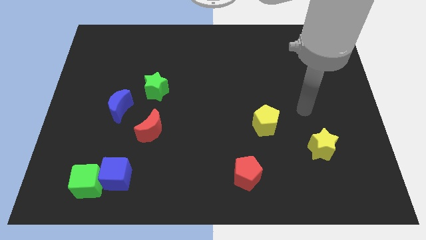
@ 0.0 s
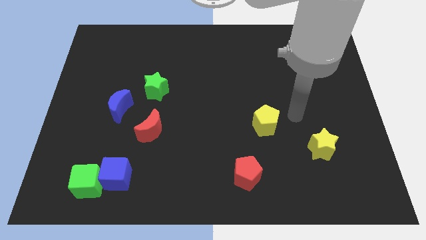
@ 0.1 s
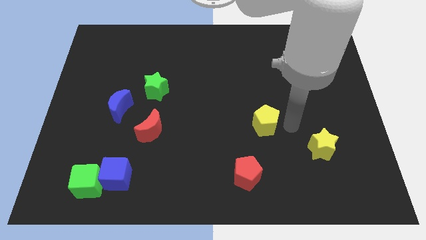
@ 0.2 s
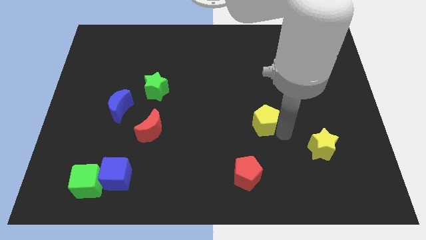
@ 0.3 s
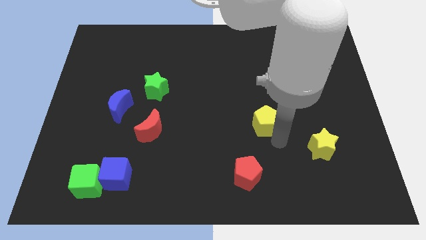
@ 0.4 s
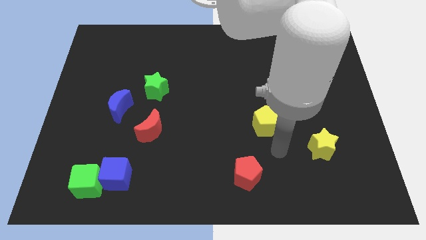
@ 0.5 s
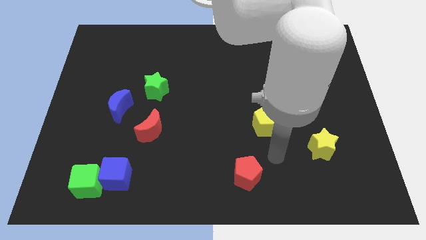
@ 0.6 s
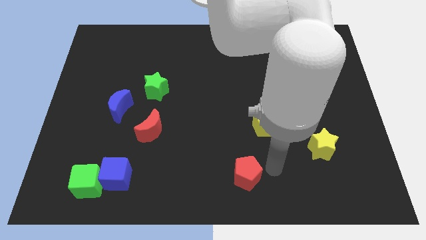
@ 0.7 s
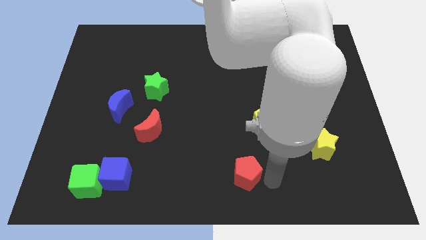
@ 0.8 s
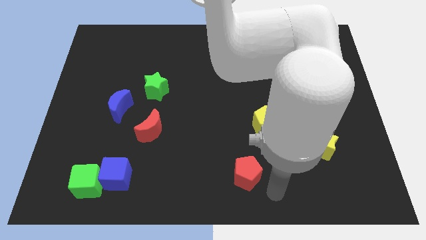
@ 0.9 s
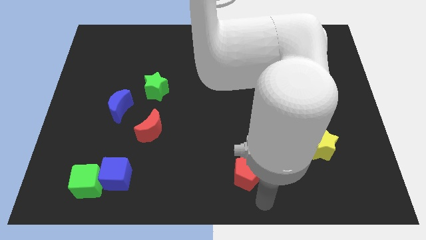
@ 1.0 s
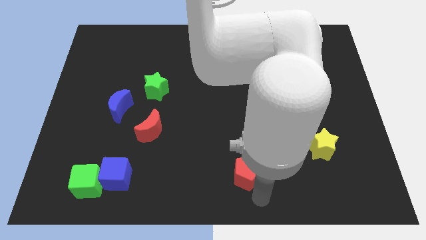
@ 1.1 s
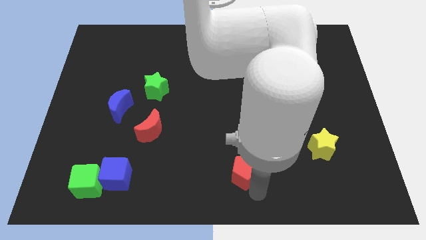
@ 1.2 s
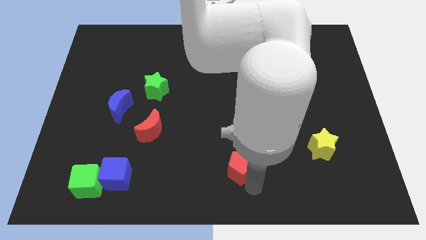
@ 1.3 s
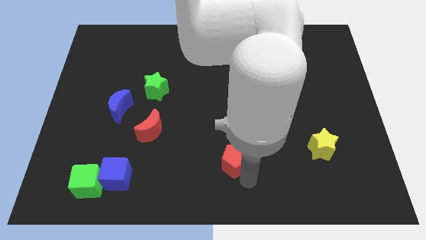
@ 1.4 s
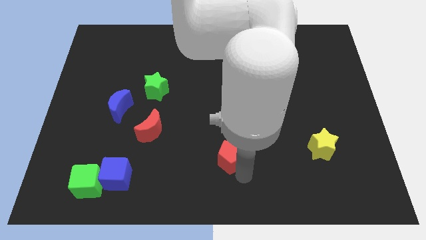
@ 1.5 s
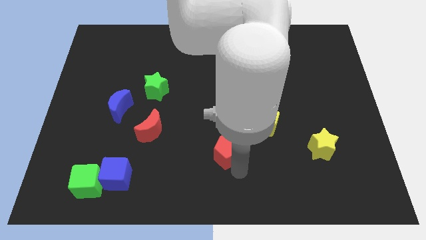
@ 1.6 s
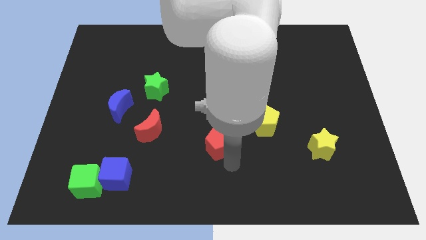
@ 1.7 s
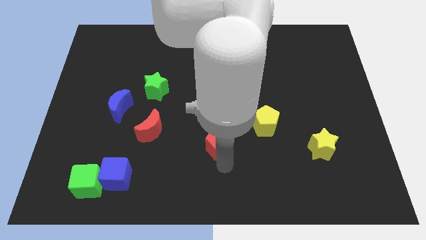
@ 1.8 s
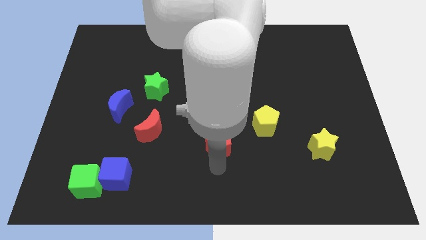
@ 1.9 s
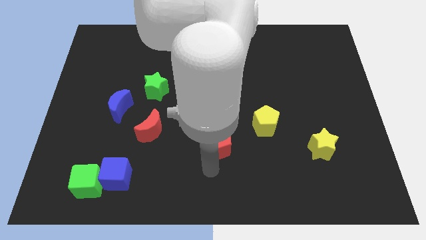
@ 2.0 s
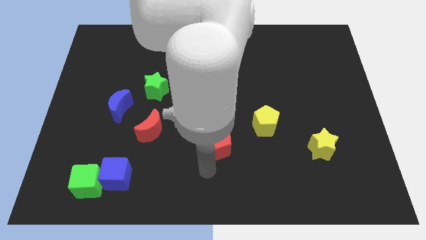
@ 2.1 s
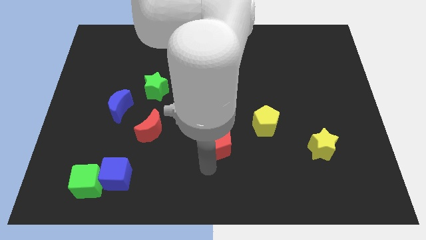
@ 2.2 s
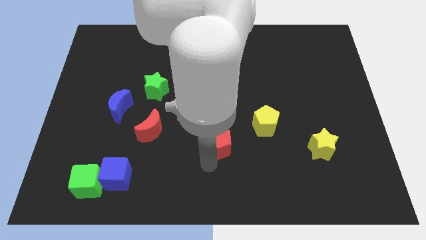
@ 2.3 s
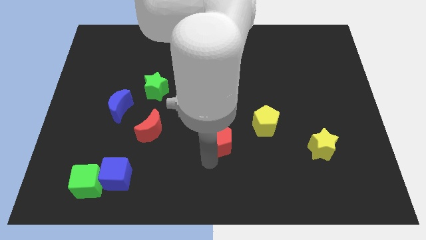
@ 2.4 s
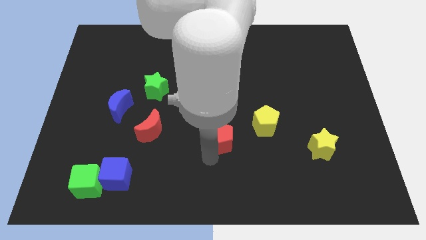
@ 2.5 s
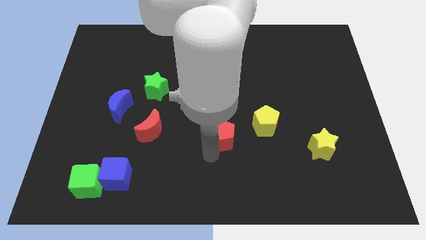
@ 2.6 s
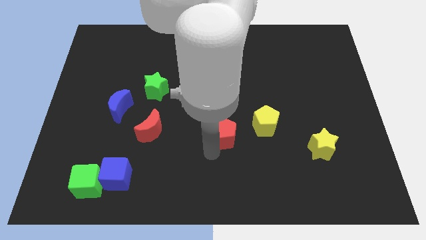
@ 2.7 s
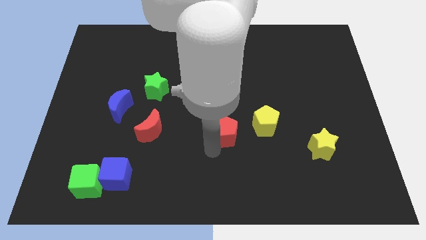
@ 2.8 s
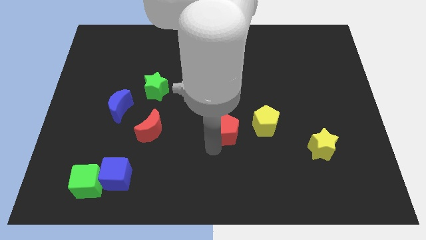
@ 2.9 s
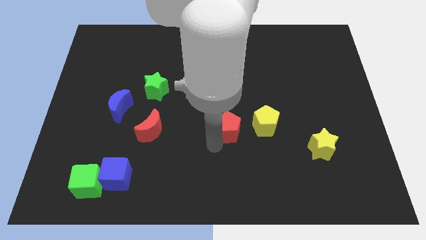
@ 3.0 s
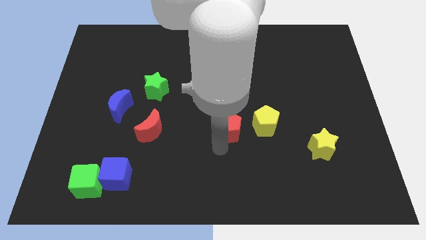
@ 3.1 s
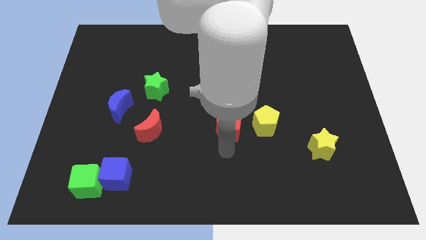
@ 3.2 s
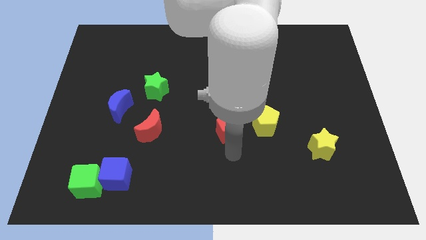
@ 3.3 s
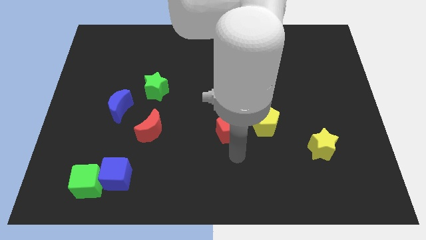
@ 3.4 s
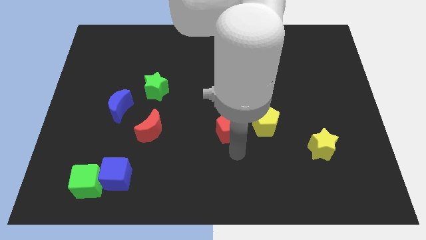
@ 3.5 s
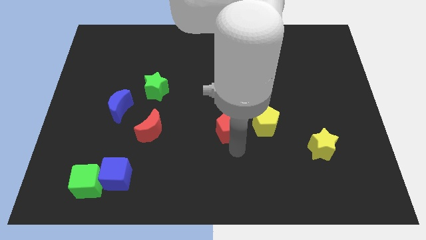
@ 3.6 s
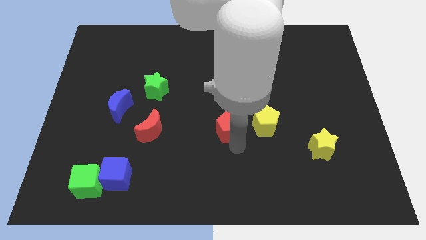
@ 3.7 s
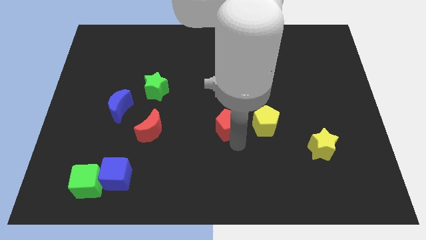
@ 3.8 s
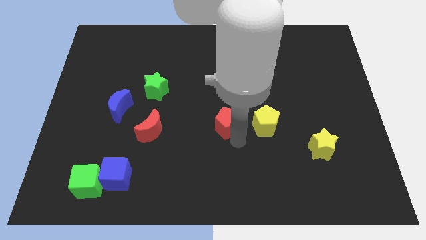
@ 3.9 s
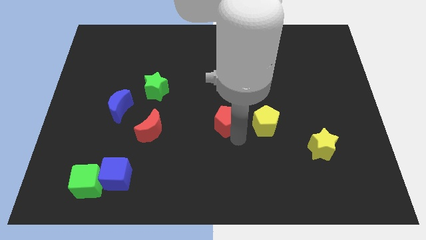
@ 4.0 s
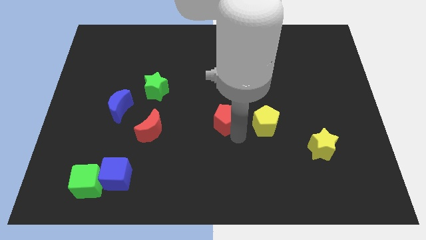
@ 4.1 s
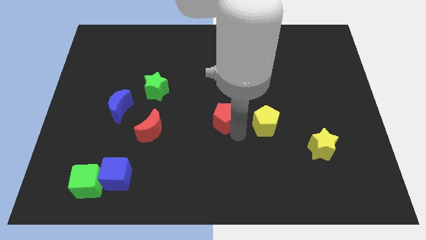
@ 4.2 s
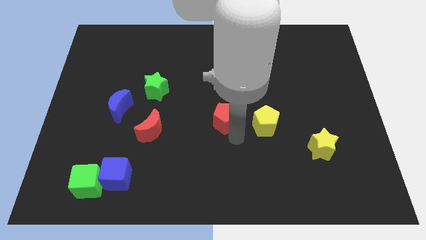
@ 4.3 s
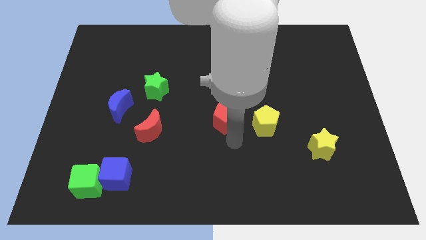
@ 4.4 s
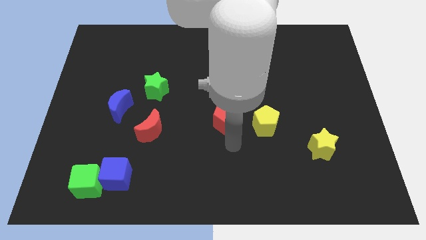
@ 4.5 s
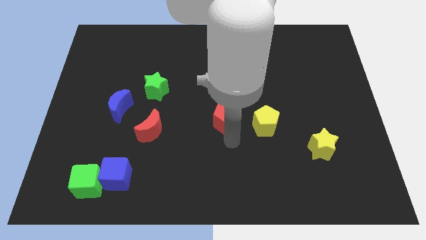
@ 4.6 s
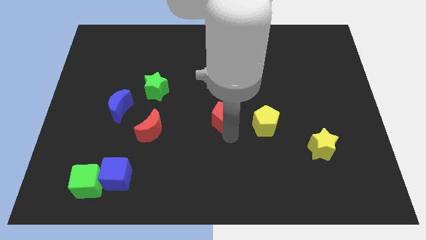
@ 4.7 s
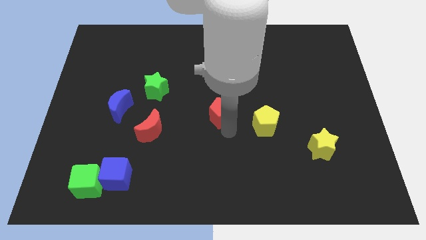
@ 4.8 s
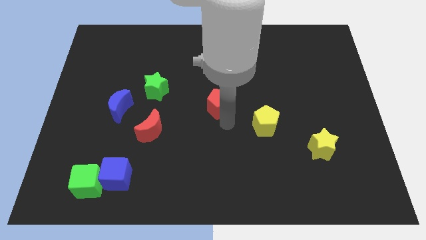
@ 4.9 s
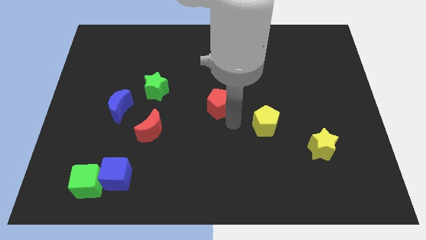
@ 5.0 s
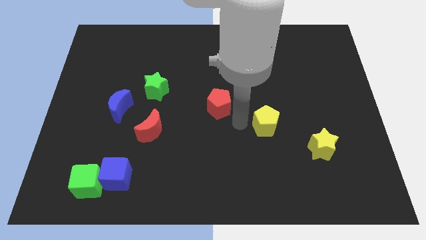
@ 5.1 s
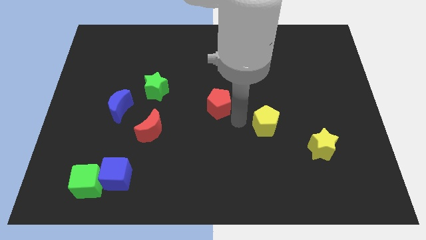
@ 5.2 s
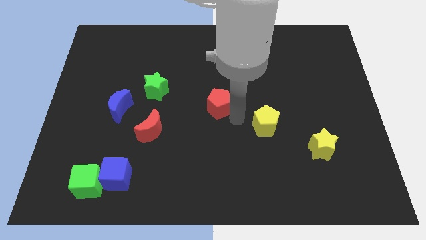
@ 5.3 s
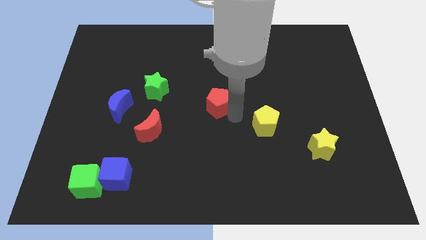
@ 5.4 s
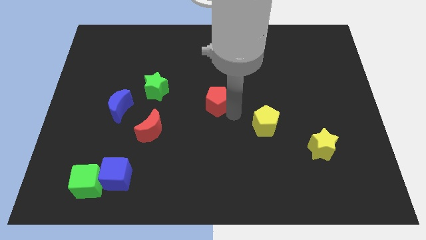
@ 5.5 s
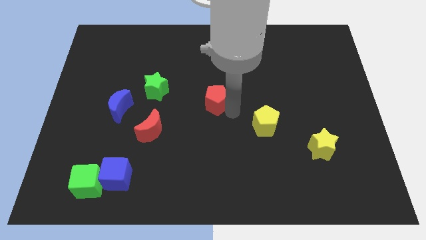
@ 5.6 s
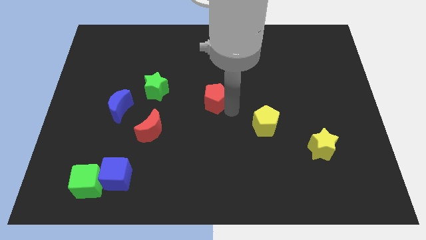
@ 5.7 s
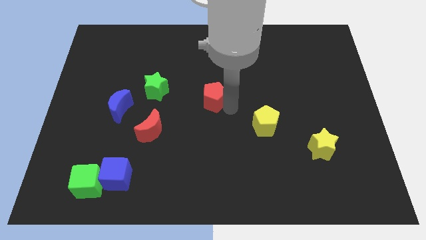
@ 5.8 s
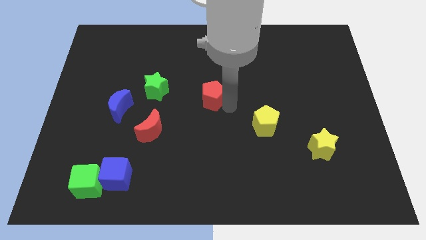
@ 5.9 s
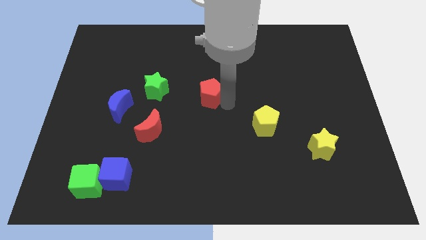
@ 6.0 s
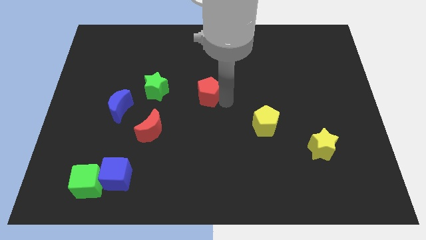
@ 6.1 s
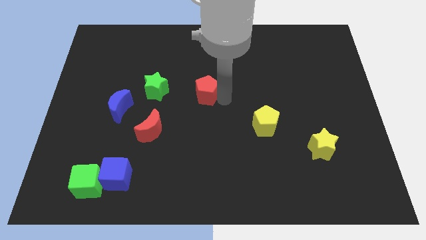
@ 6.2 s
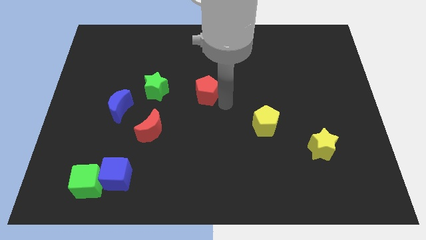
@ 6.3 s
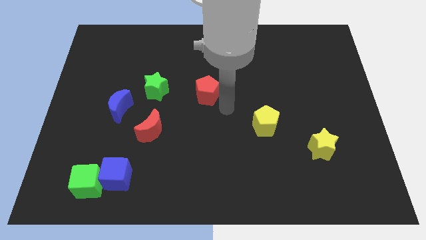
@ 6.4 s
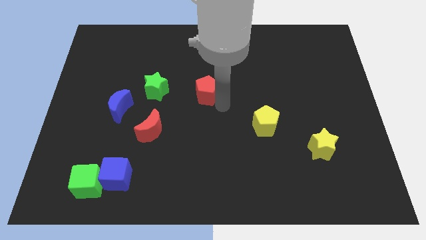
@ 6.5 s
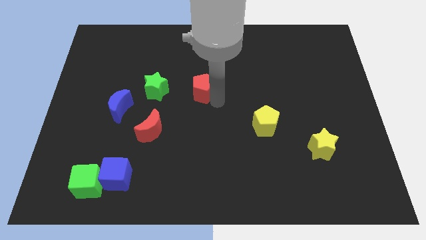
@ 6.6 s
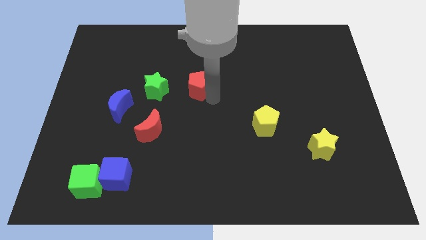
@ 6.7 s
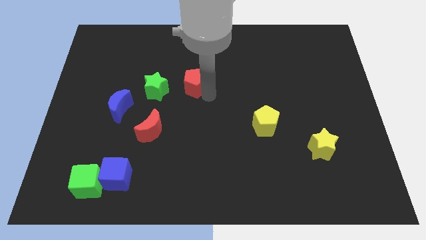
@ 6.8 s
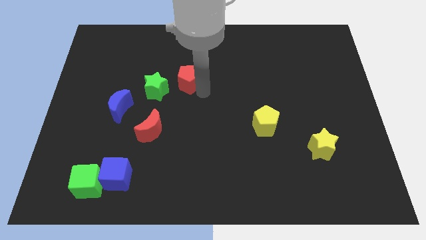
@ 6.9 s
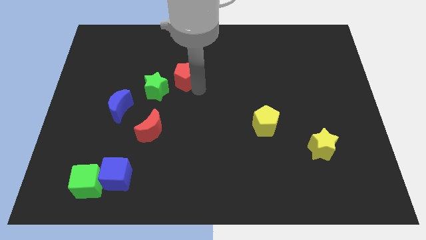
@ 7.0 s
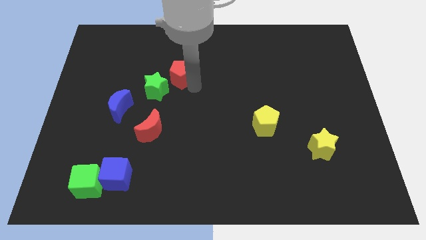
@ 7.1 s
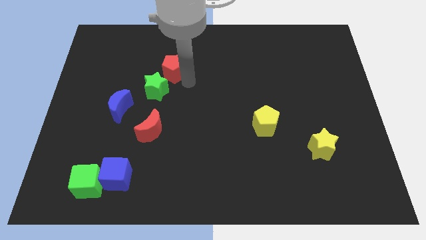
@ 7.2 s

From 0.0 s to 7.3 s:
move the red pentagon to the top of the green star

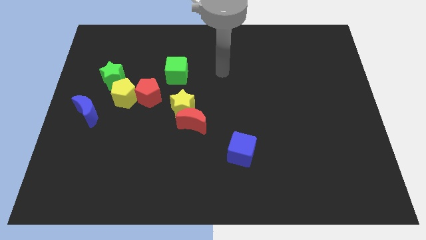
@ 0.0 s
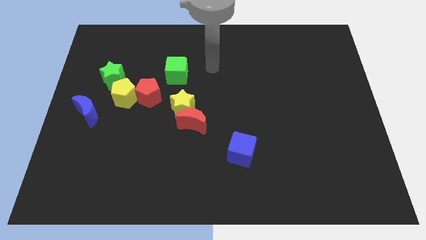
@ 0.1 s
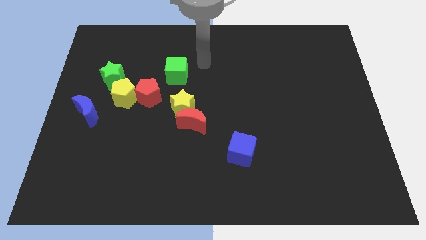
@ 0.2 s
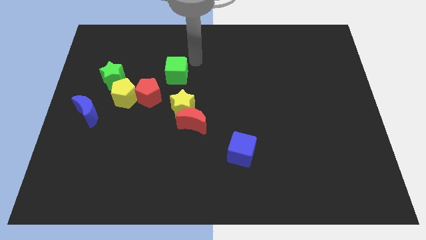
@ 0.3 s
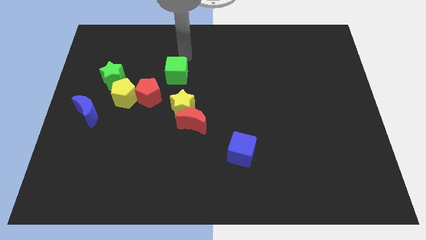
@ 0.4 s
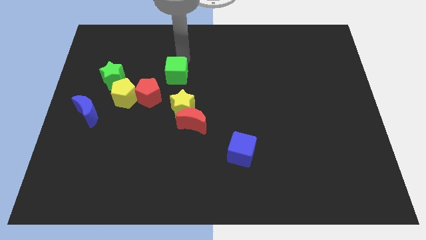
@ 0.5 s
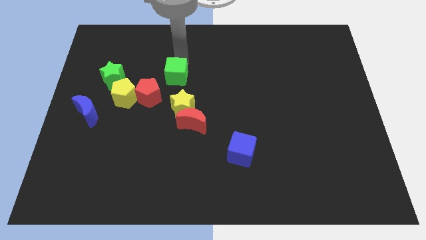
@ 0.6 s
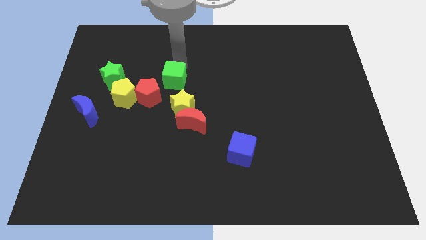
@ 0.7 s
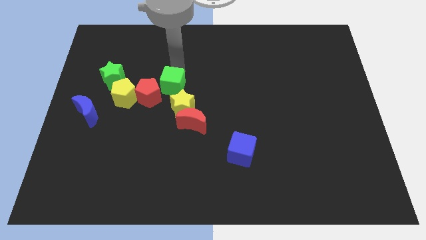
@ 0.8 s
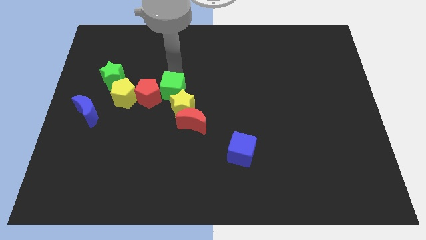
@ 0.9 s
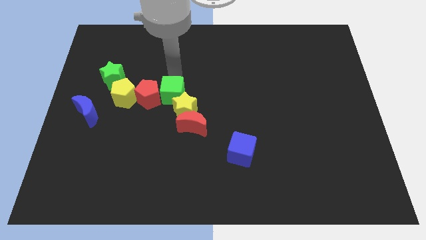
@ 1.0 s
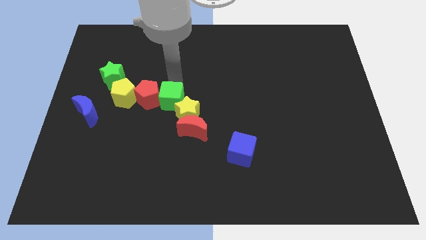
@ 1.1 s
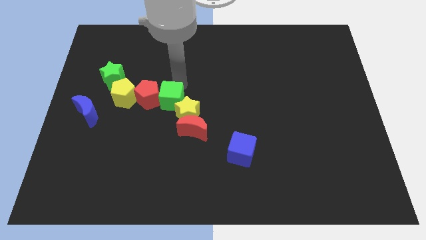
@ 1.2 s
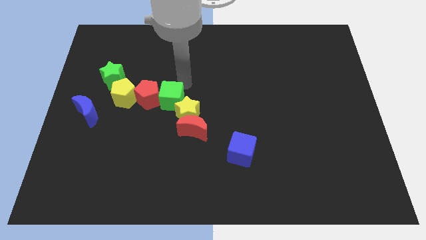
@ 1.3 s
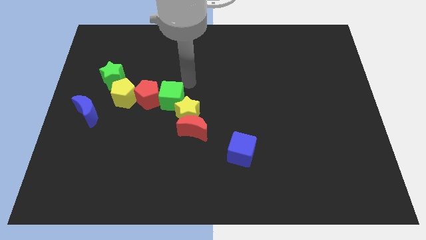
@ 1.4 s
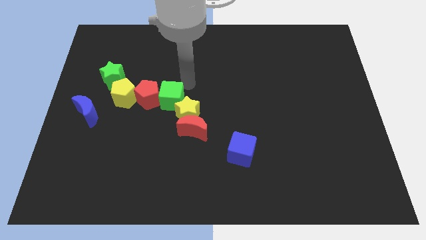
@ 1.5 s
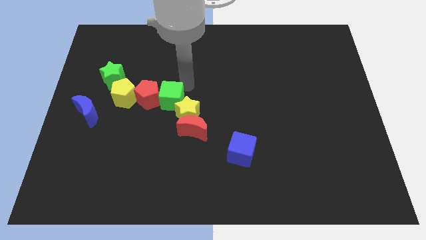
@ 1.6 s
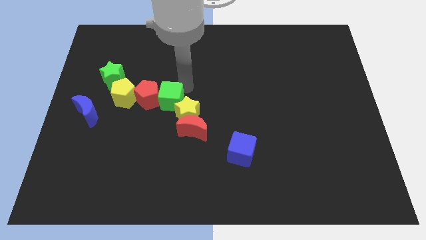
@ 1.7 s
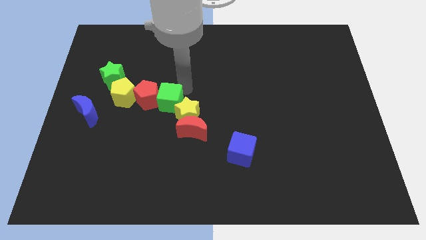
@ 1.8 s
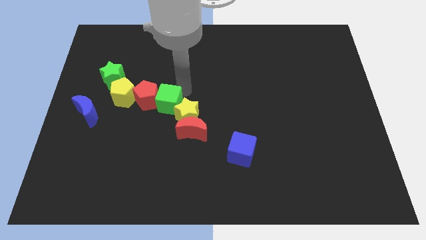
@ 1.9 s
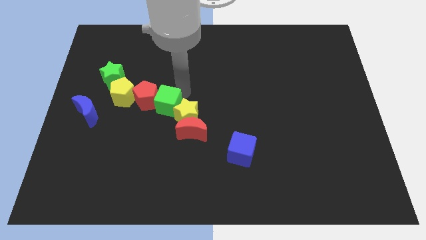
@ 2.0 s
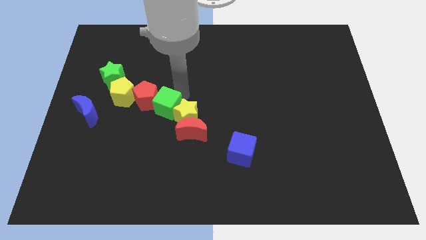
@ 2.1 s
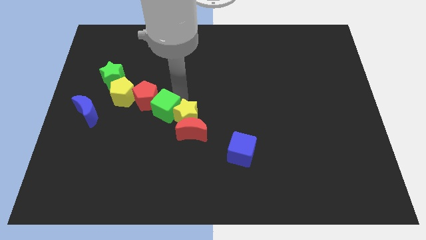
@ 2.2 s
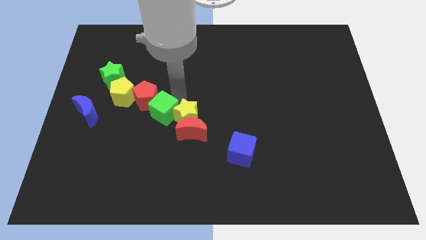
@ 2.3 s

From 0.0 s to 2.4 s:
push the green cube to the bottom side of the red pentagon
